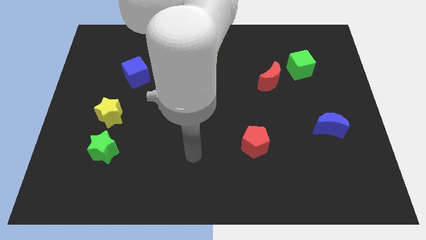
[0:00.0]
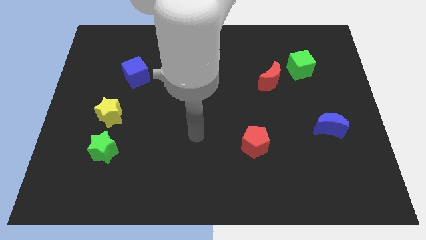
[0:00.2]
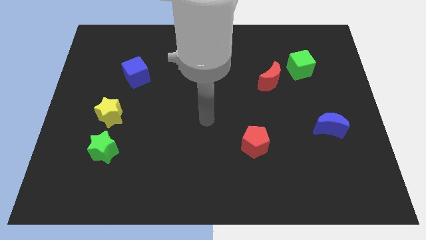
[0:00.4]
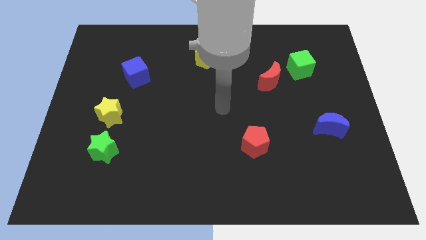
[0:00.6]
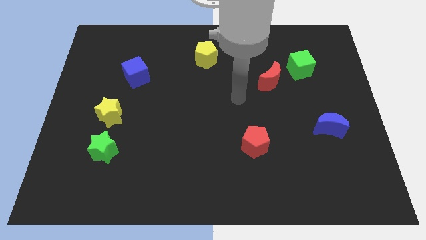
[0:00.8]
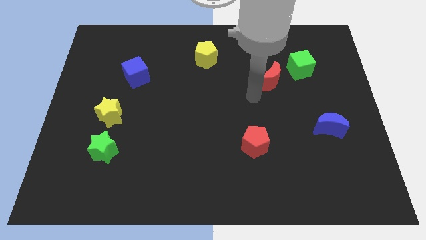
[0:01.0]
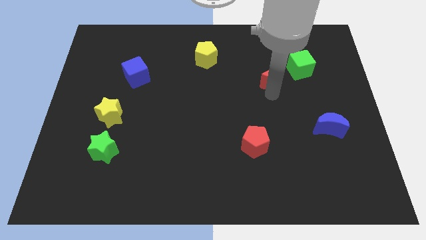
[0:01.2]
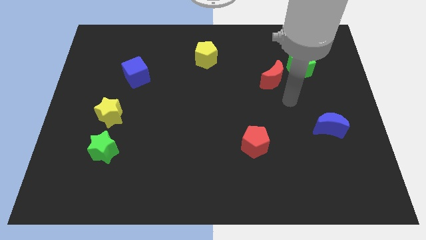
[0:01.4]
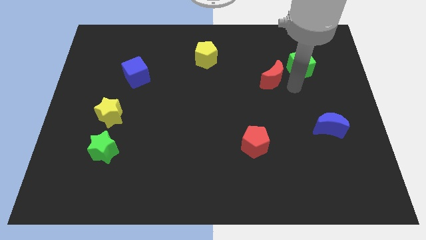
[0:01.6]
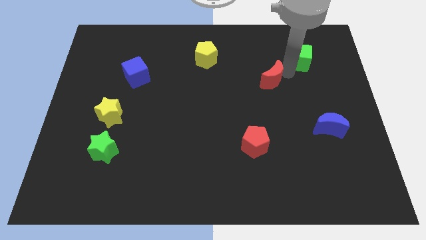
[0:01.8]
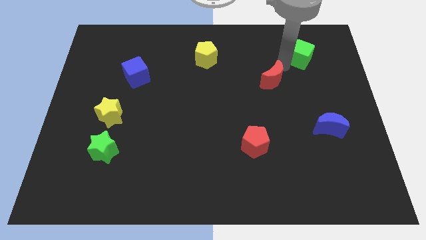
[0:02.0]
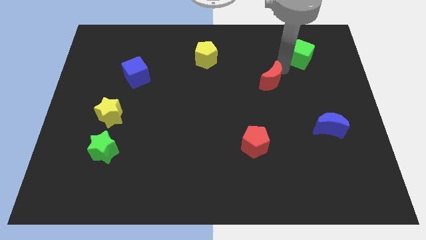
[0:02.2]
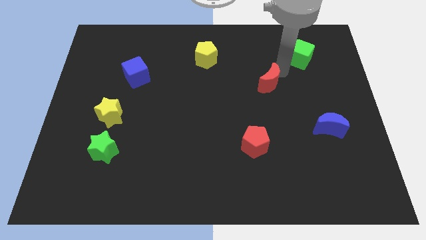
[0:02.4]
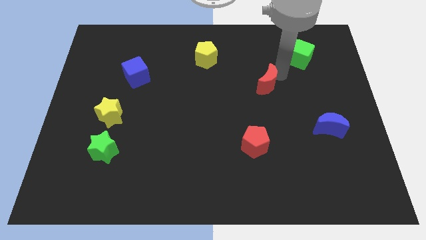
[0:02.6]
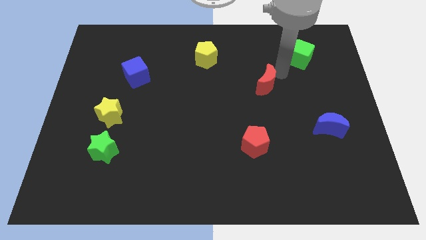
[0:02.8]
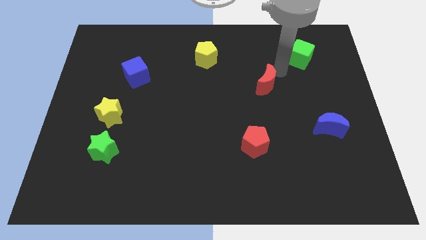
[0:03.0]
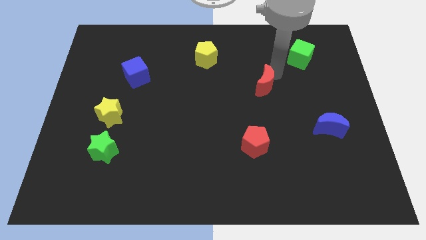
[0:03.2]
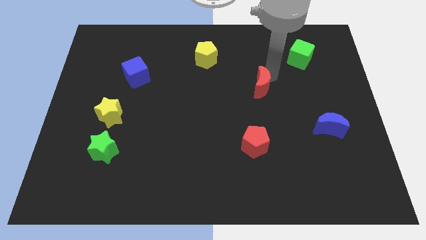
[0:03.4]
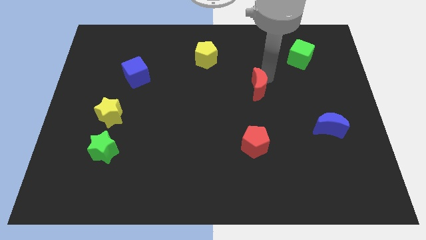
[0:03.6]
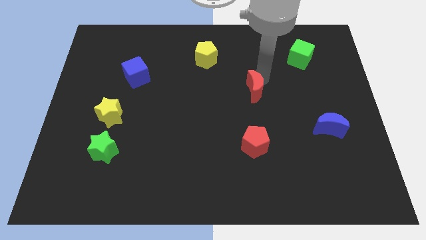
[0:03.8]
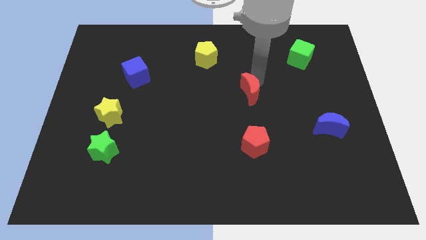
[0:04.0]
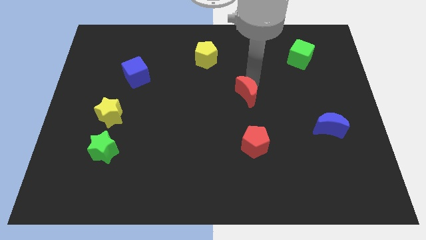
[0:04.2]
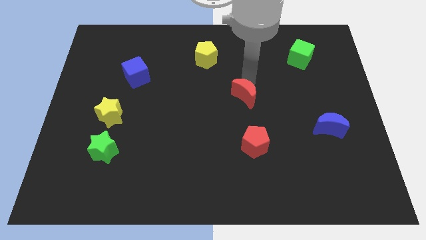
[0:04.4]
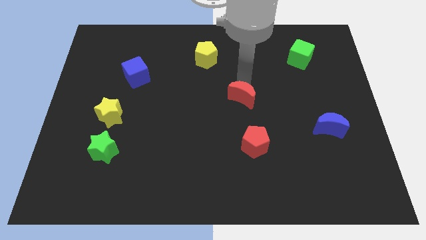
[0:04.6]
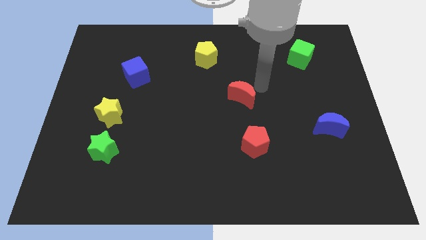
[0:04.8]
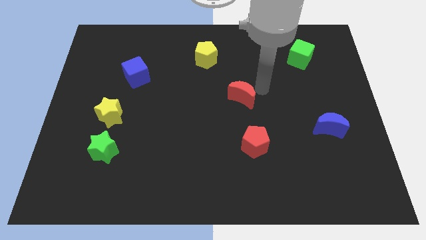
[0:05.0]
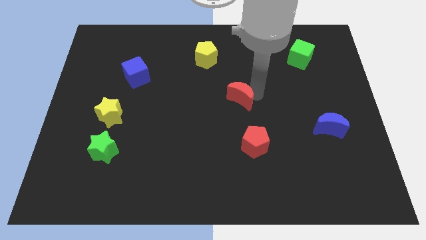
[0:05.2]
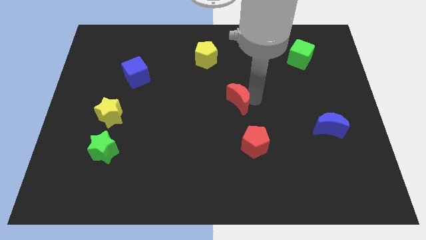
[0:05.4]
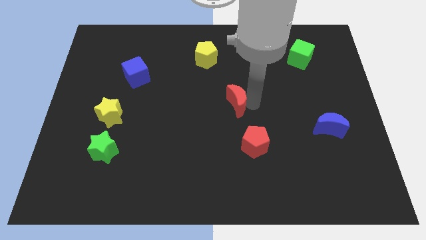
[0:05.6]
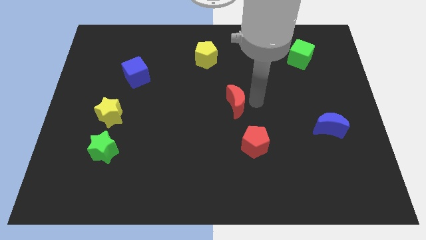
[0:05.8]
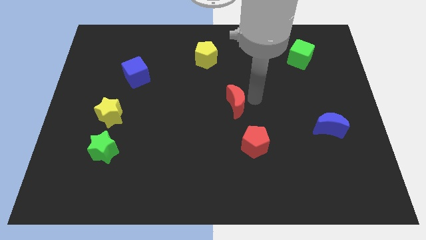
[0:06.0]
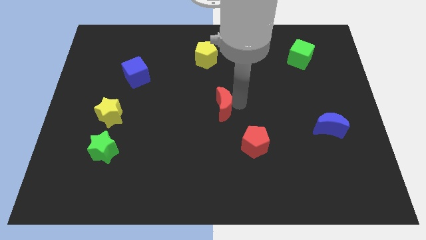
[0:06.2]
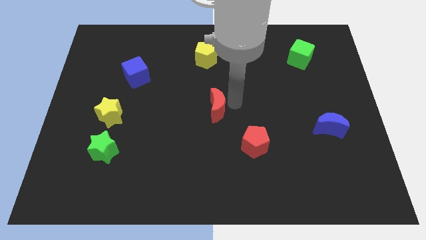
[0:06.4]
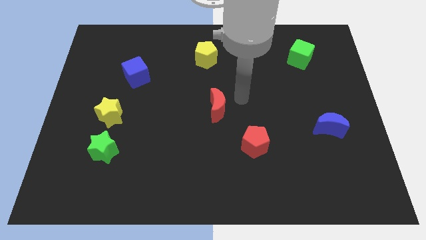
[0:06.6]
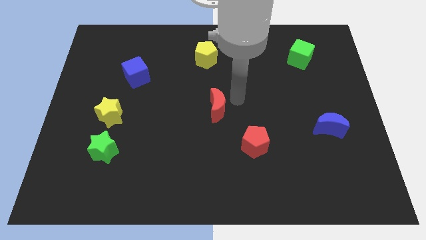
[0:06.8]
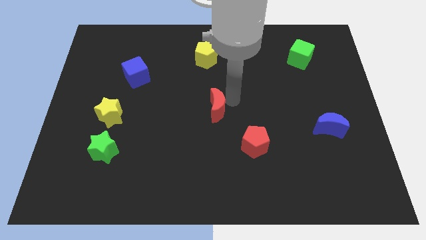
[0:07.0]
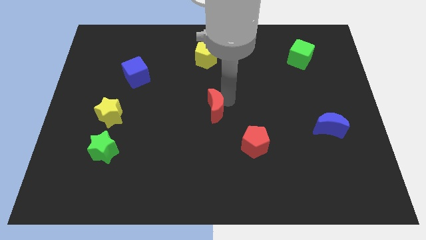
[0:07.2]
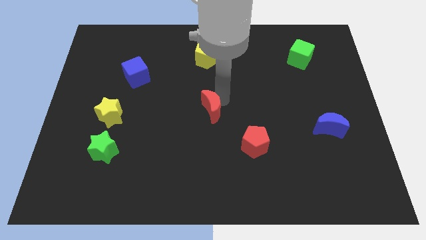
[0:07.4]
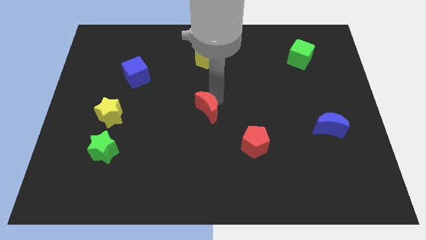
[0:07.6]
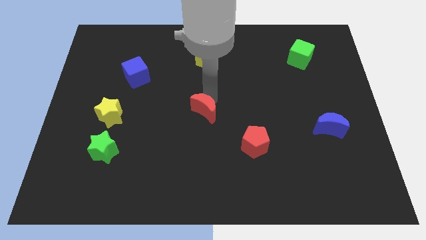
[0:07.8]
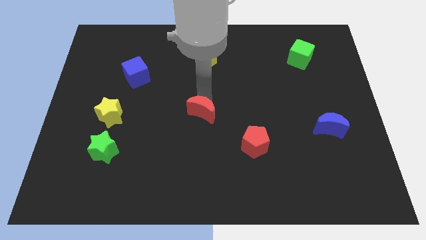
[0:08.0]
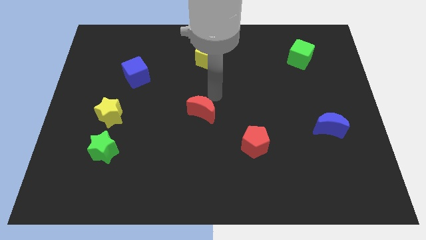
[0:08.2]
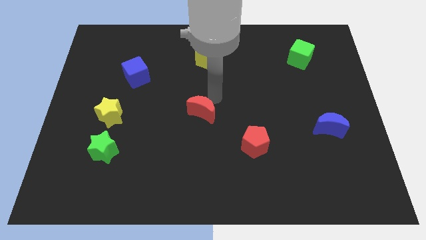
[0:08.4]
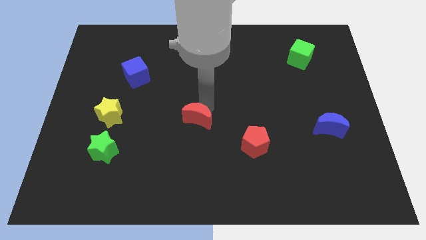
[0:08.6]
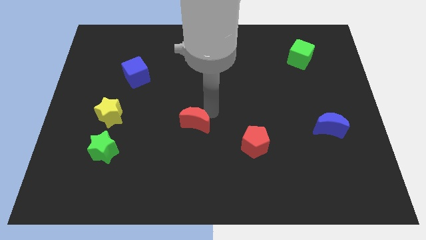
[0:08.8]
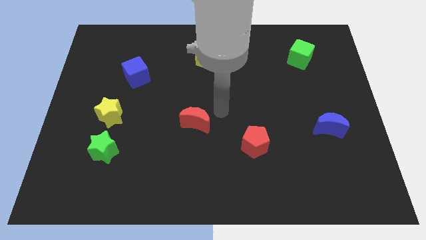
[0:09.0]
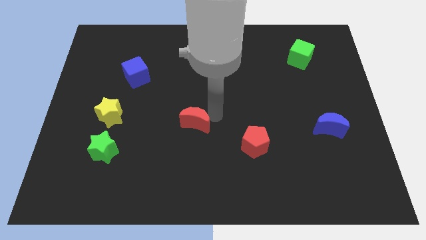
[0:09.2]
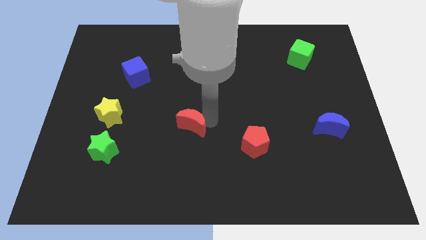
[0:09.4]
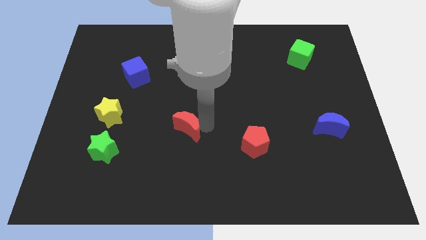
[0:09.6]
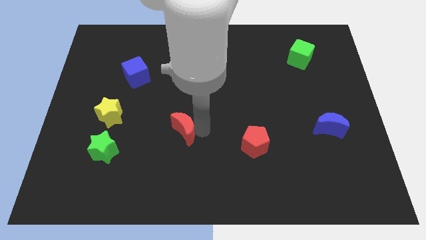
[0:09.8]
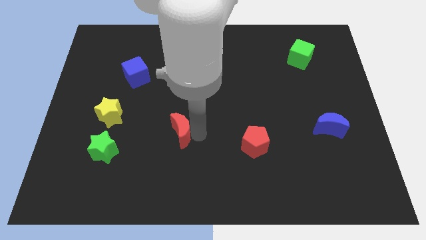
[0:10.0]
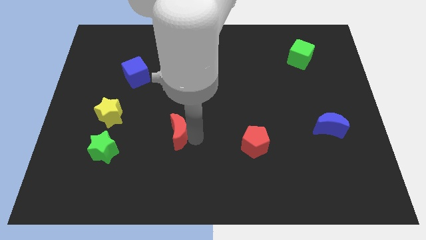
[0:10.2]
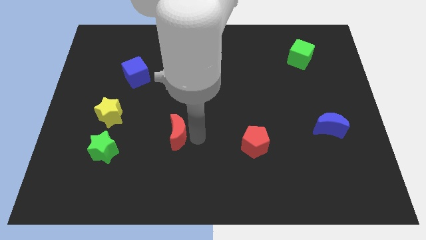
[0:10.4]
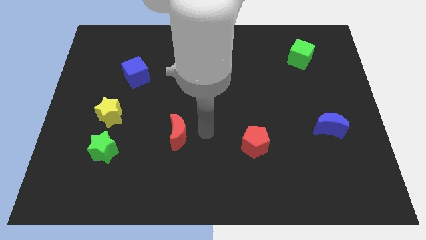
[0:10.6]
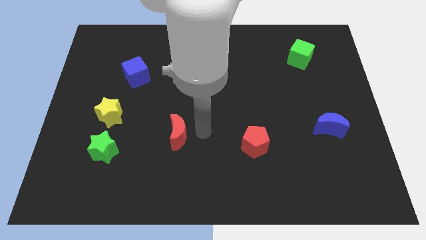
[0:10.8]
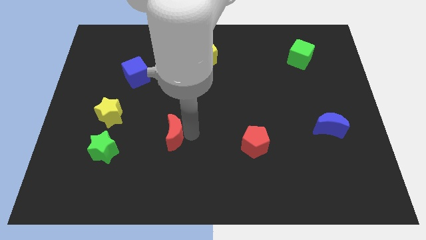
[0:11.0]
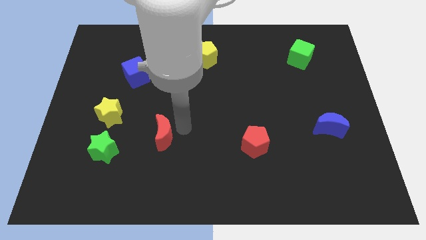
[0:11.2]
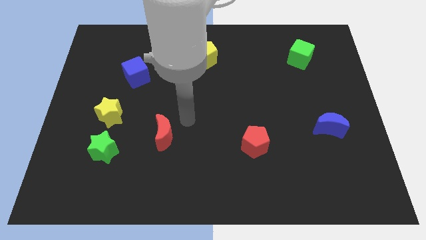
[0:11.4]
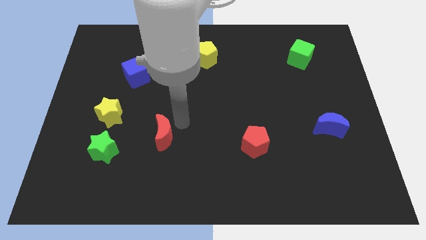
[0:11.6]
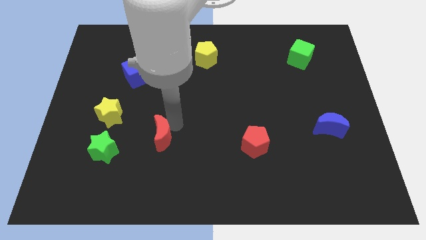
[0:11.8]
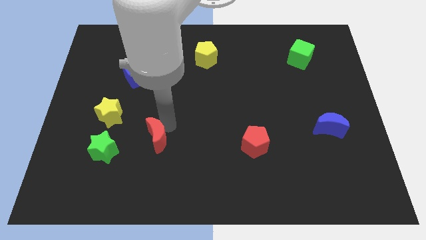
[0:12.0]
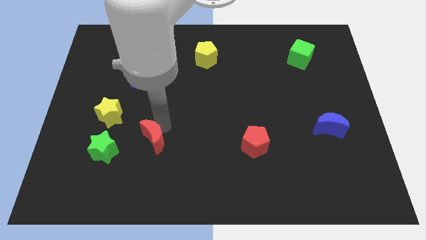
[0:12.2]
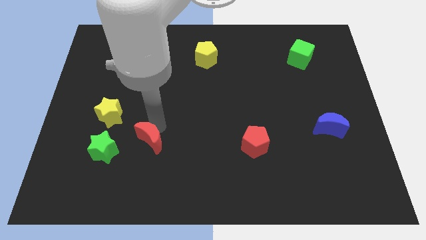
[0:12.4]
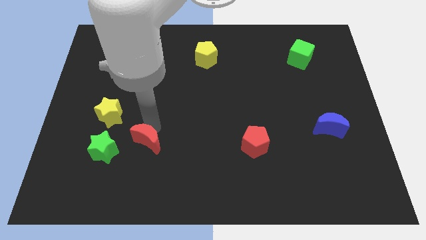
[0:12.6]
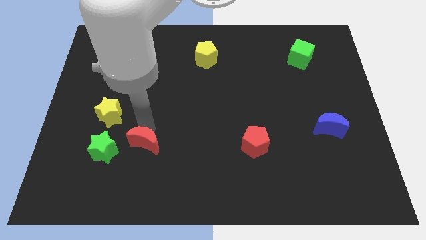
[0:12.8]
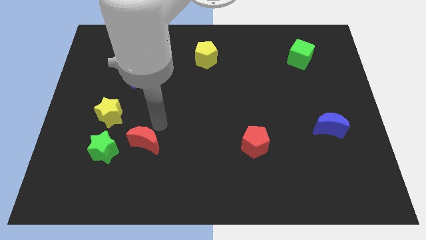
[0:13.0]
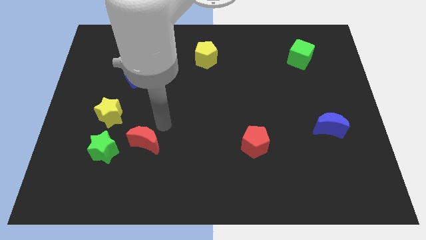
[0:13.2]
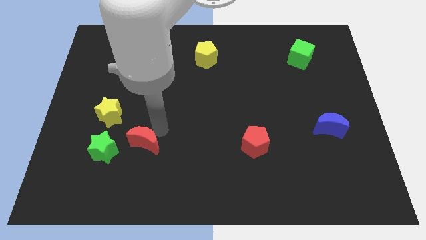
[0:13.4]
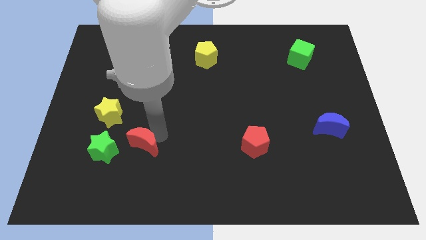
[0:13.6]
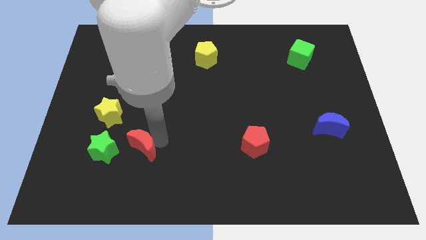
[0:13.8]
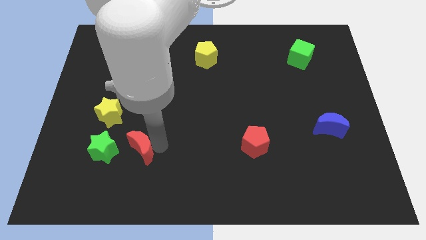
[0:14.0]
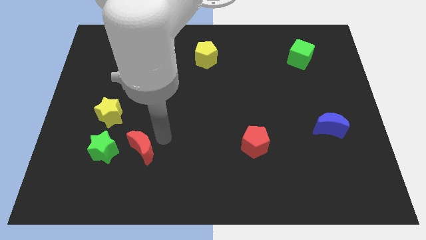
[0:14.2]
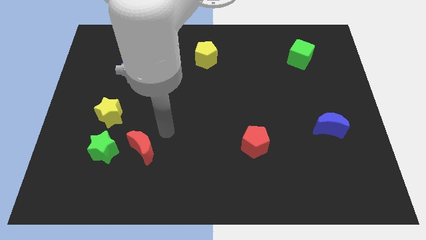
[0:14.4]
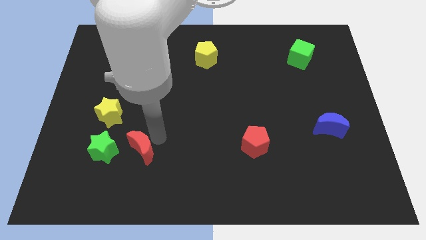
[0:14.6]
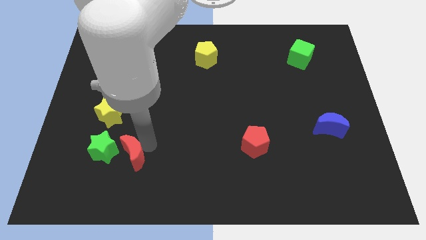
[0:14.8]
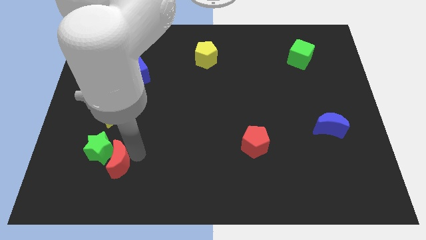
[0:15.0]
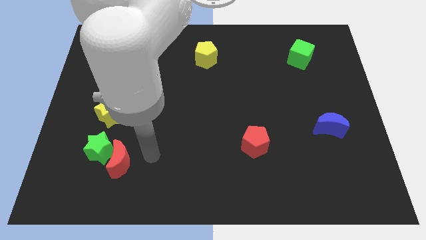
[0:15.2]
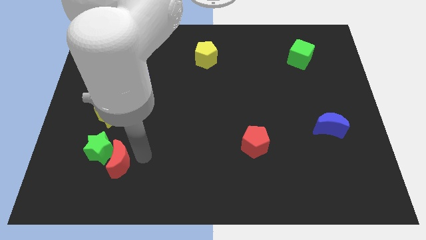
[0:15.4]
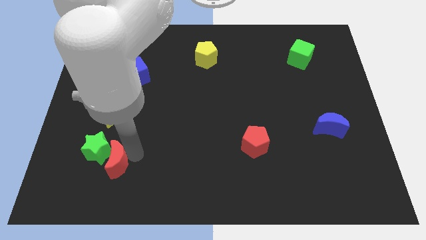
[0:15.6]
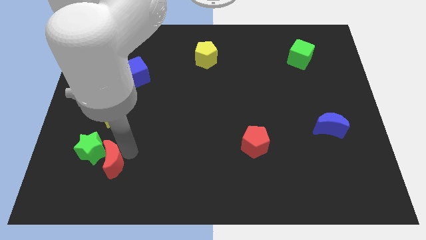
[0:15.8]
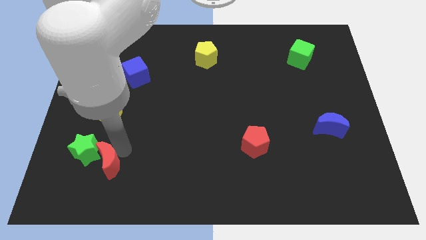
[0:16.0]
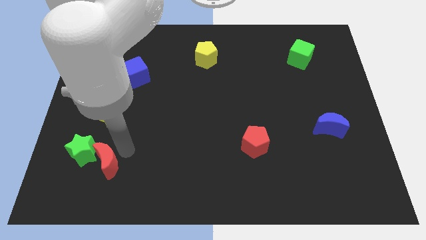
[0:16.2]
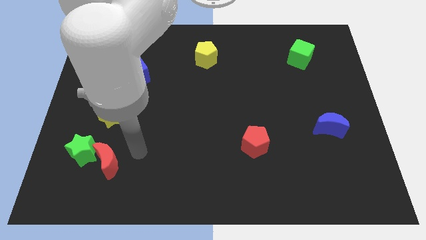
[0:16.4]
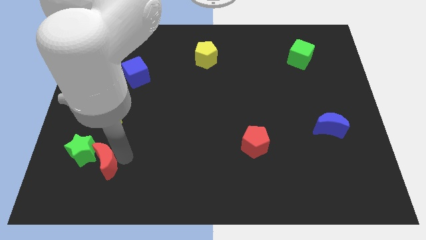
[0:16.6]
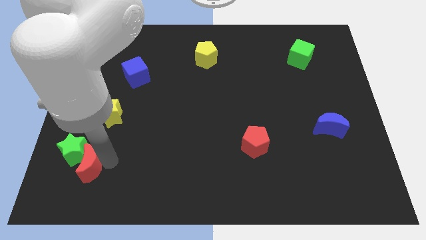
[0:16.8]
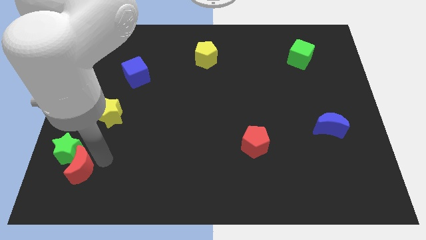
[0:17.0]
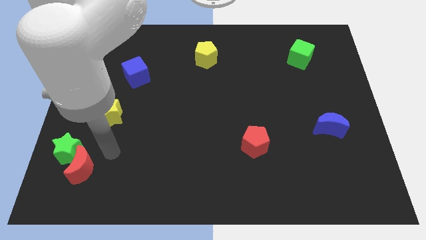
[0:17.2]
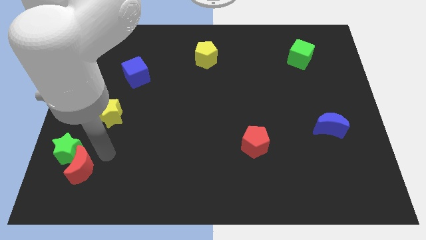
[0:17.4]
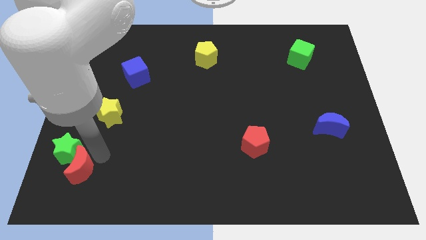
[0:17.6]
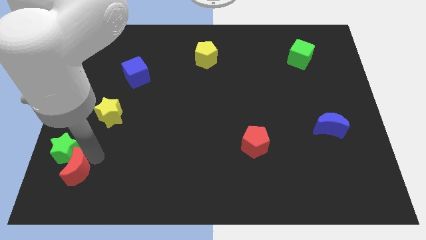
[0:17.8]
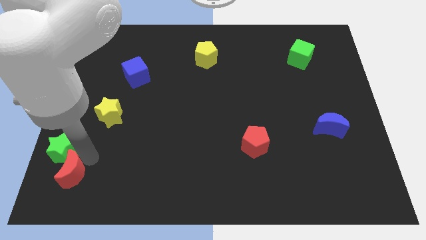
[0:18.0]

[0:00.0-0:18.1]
move the red moon to the bottom left of the board
